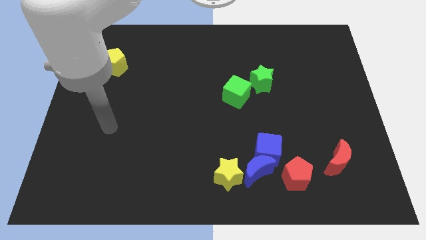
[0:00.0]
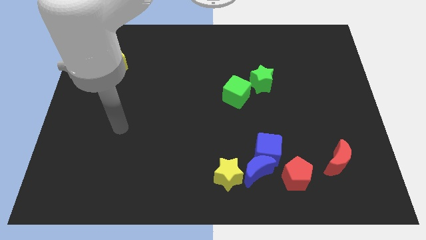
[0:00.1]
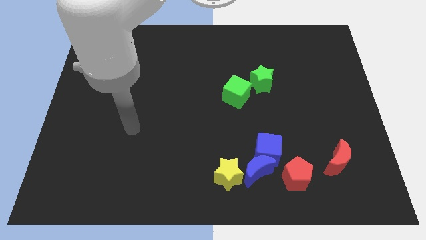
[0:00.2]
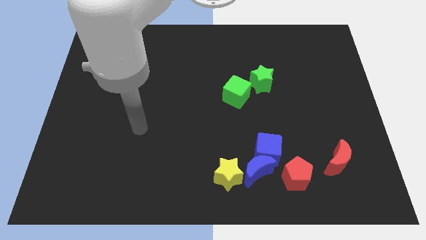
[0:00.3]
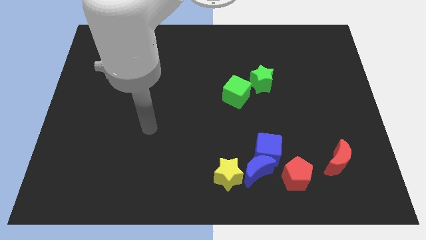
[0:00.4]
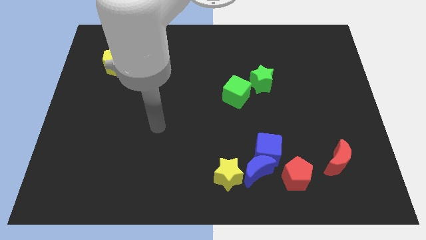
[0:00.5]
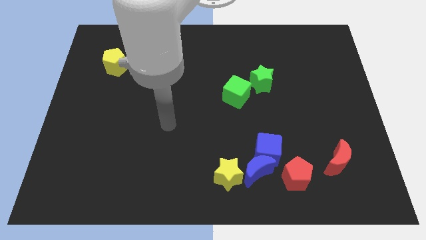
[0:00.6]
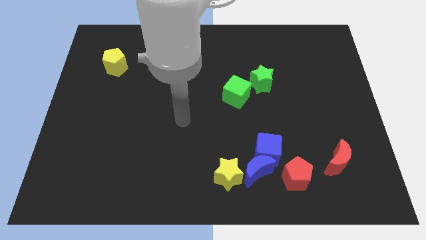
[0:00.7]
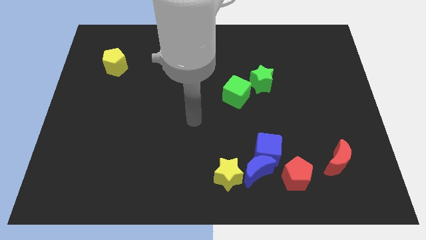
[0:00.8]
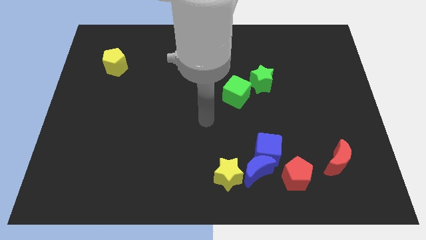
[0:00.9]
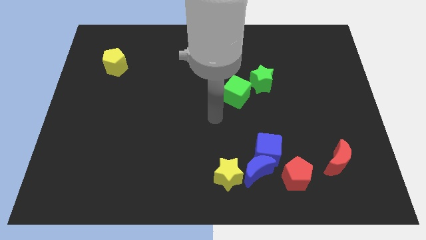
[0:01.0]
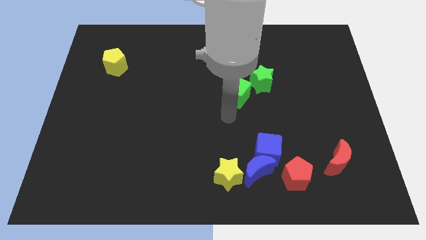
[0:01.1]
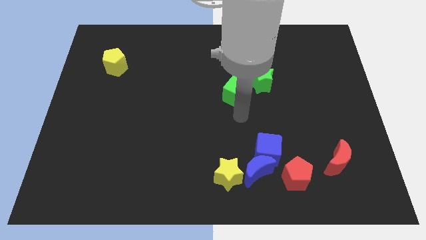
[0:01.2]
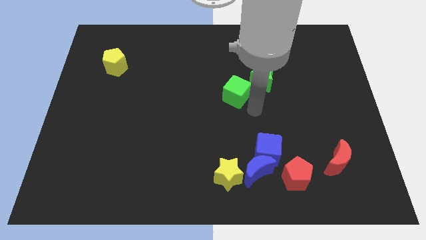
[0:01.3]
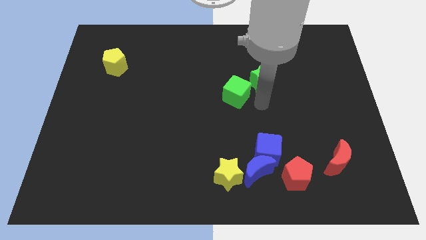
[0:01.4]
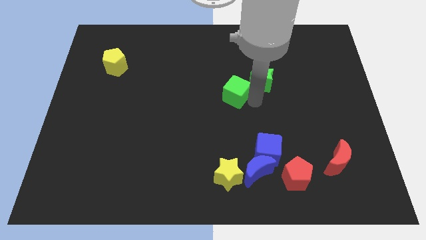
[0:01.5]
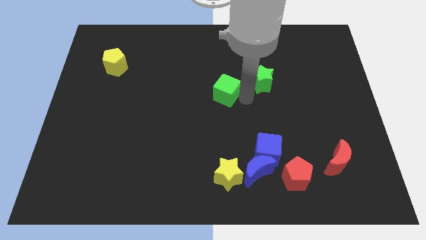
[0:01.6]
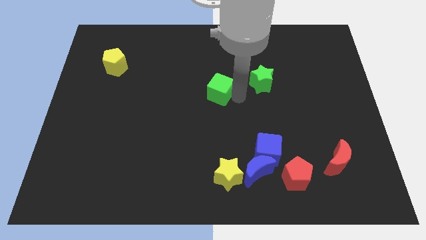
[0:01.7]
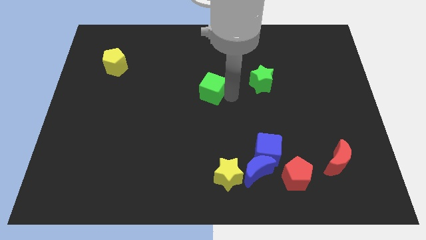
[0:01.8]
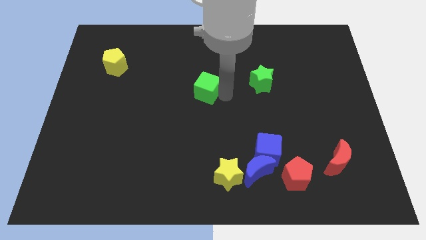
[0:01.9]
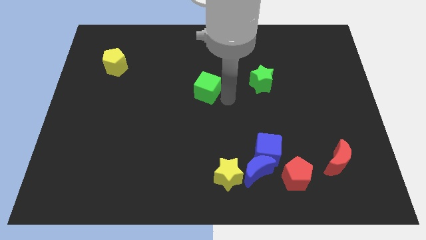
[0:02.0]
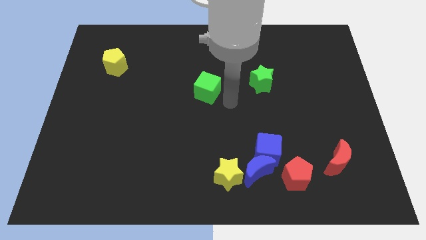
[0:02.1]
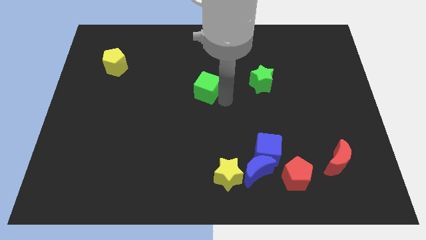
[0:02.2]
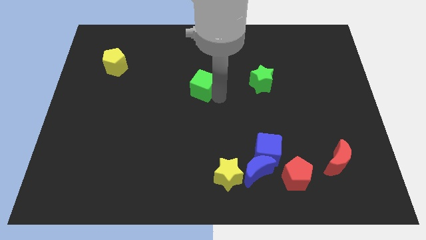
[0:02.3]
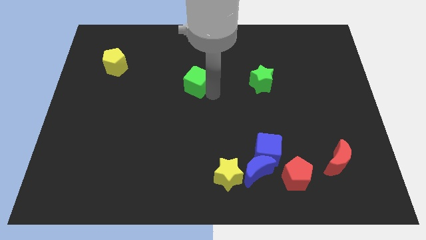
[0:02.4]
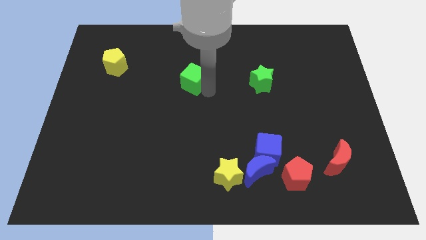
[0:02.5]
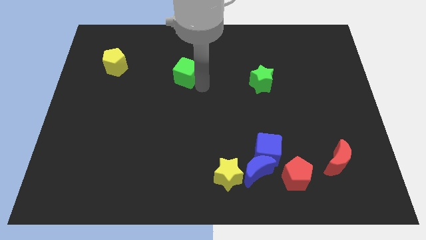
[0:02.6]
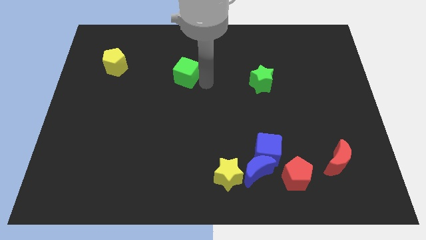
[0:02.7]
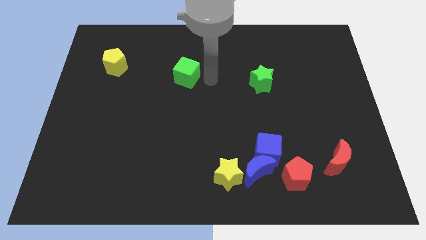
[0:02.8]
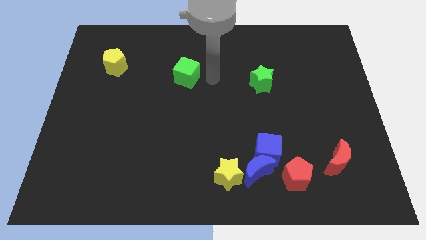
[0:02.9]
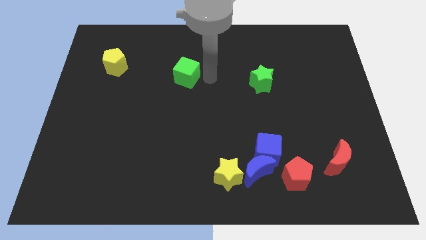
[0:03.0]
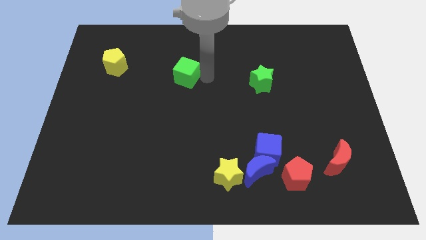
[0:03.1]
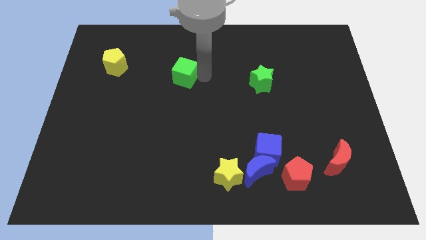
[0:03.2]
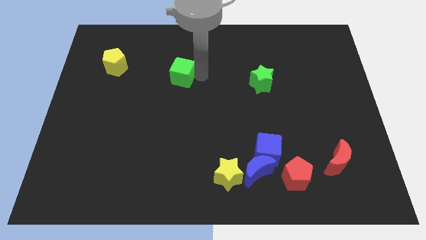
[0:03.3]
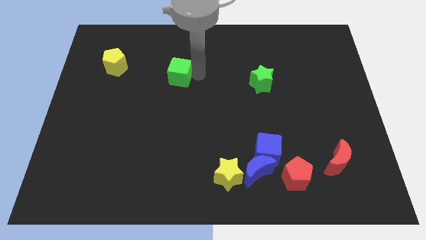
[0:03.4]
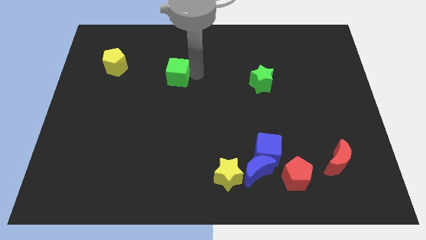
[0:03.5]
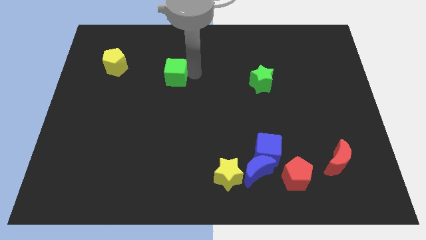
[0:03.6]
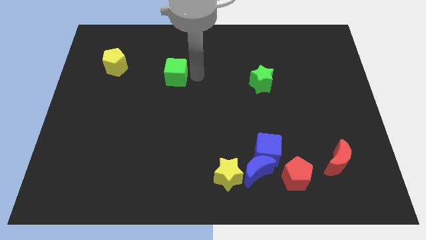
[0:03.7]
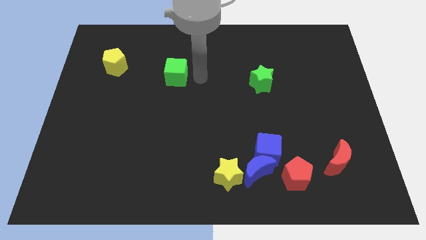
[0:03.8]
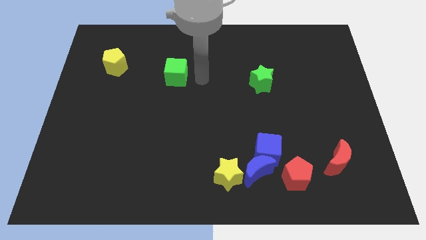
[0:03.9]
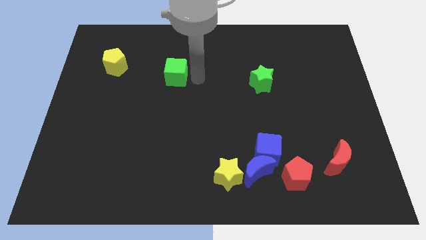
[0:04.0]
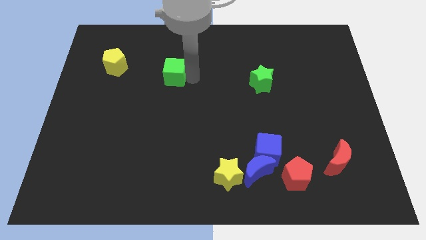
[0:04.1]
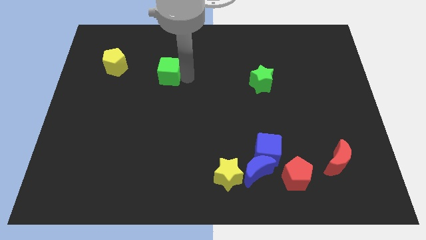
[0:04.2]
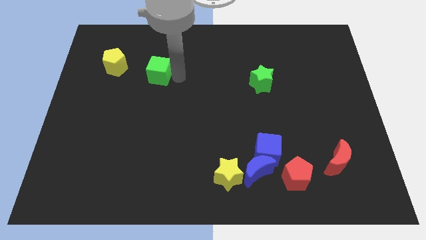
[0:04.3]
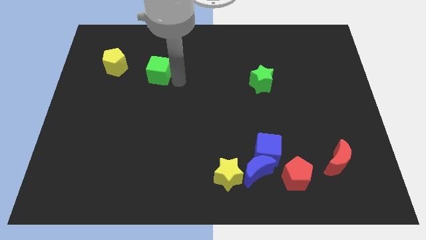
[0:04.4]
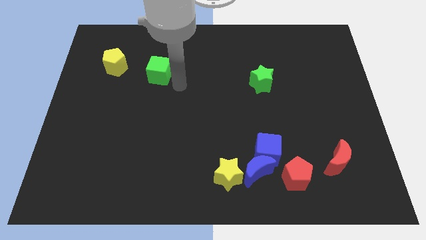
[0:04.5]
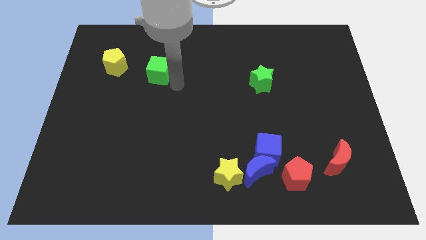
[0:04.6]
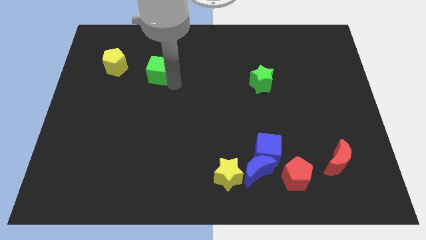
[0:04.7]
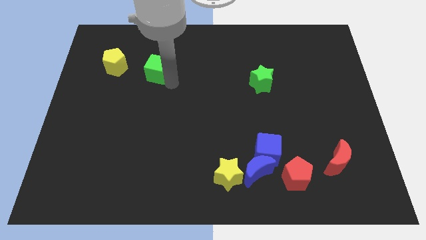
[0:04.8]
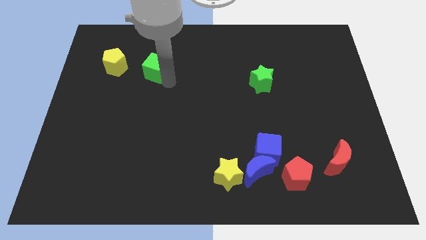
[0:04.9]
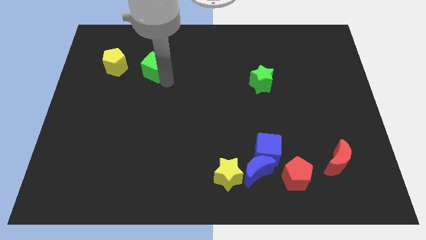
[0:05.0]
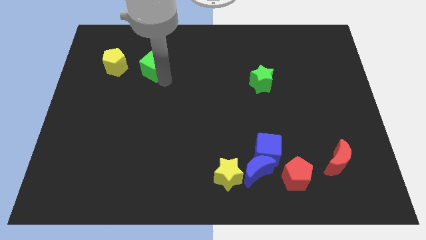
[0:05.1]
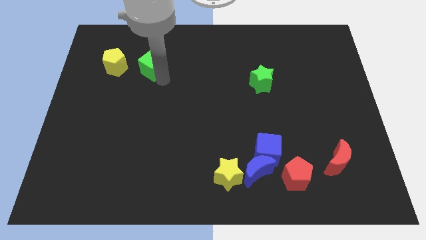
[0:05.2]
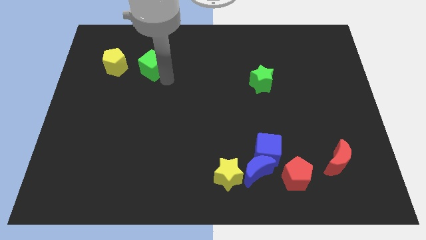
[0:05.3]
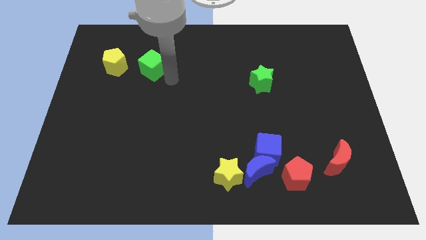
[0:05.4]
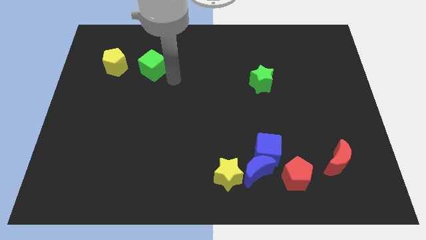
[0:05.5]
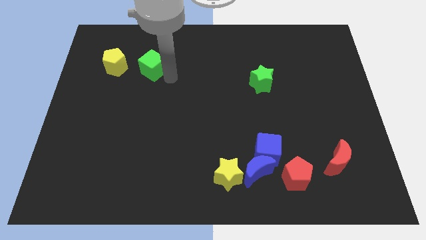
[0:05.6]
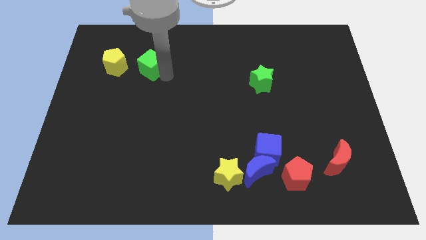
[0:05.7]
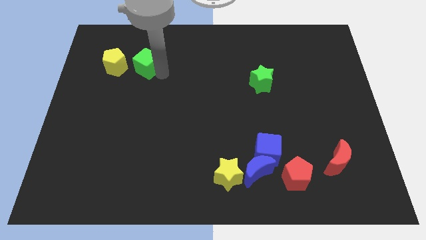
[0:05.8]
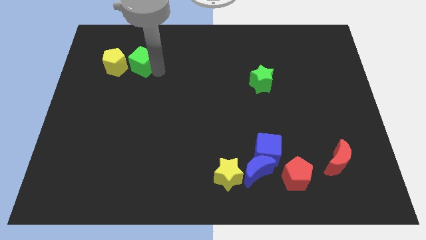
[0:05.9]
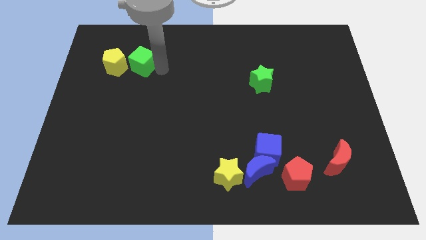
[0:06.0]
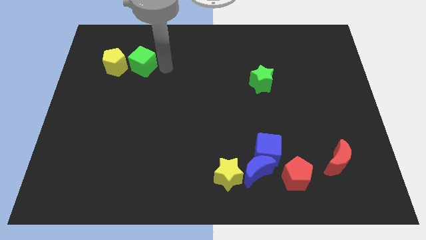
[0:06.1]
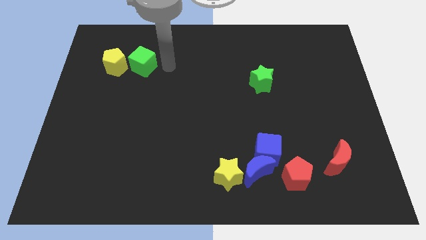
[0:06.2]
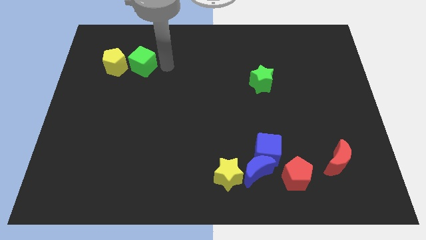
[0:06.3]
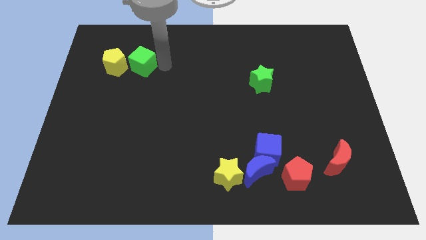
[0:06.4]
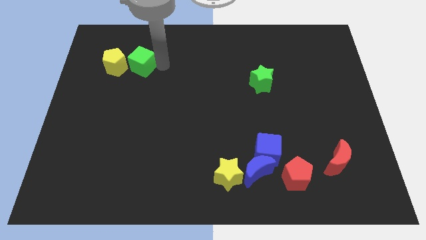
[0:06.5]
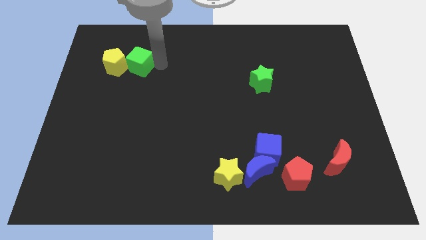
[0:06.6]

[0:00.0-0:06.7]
push the green cube next to the yellow pentagon

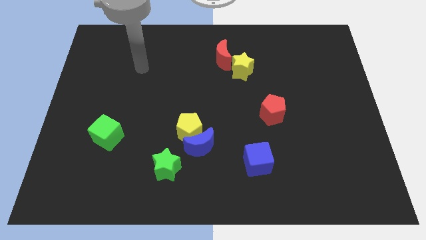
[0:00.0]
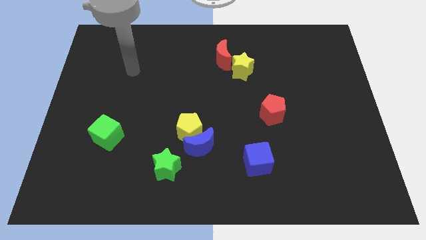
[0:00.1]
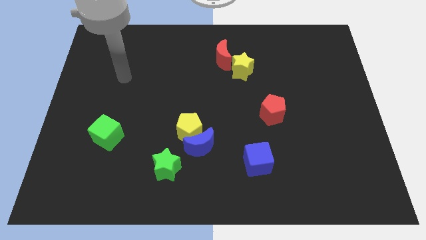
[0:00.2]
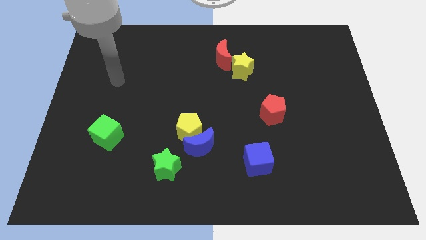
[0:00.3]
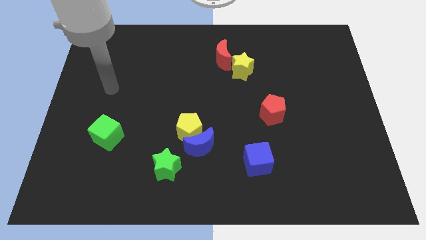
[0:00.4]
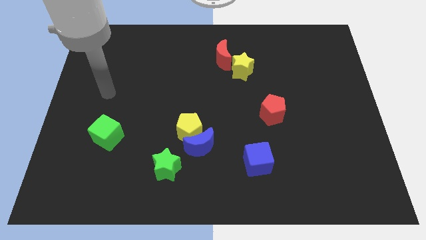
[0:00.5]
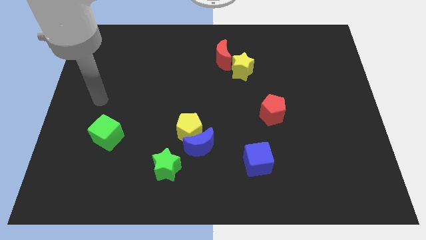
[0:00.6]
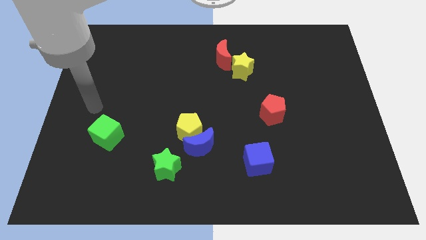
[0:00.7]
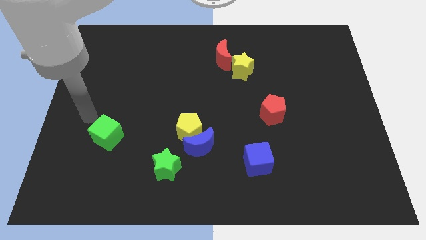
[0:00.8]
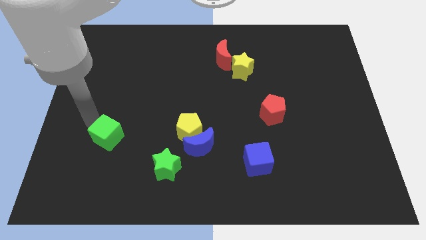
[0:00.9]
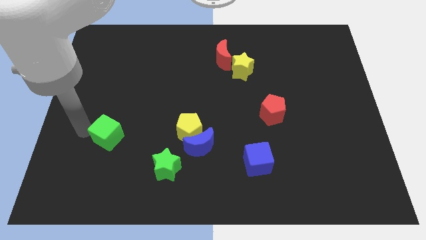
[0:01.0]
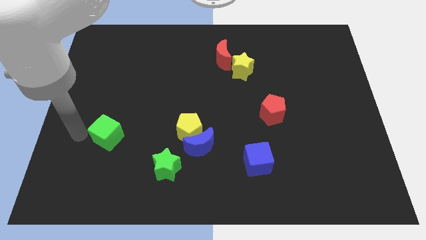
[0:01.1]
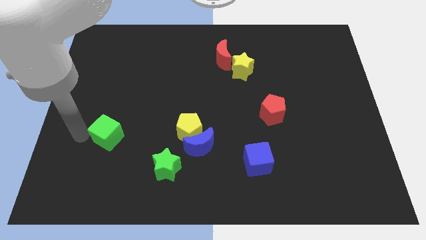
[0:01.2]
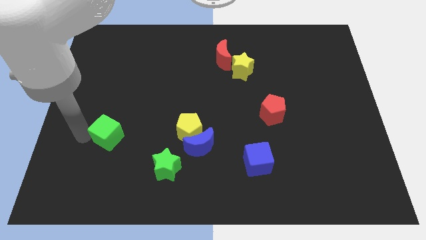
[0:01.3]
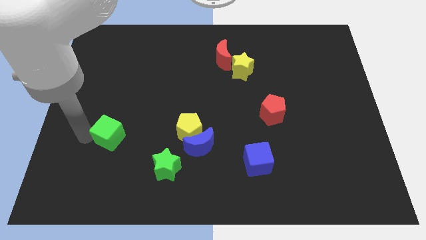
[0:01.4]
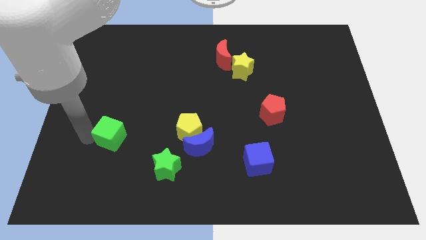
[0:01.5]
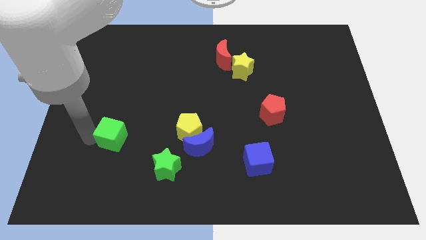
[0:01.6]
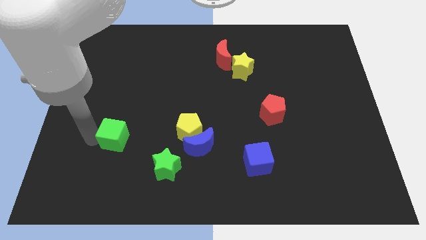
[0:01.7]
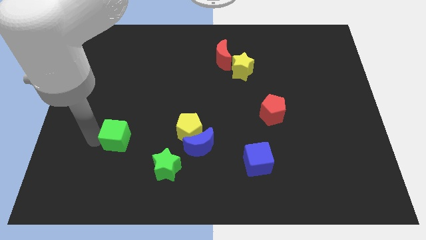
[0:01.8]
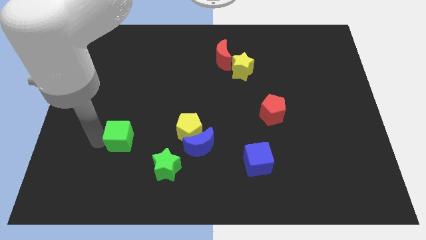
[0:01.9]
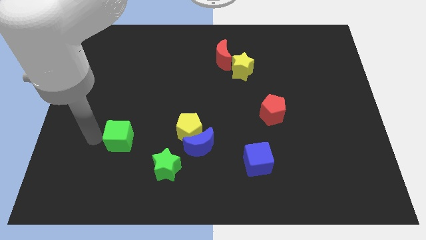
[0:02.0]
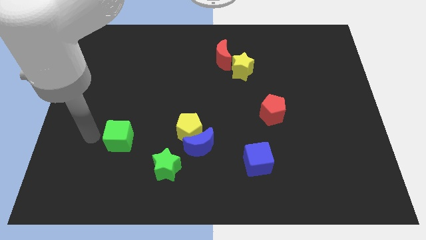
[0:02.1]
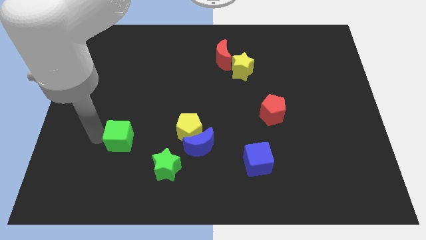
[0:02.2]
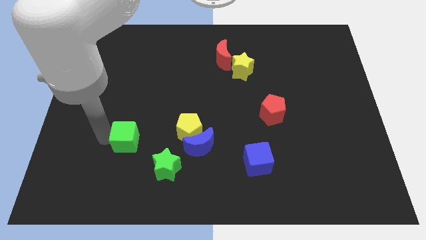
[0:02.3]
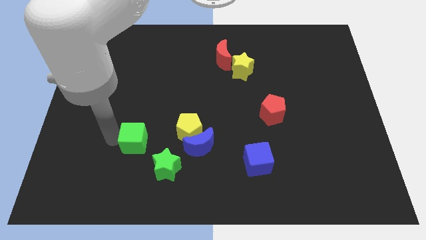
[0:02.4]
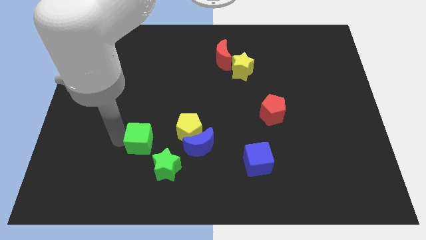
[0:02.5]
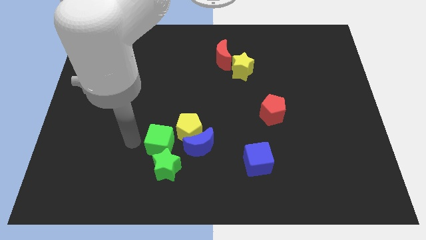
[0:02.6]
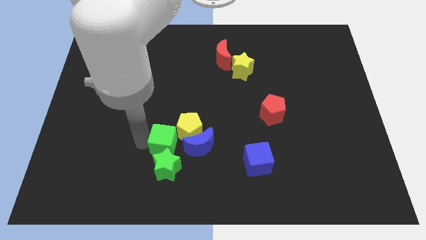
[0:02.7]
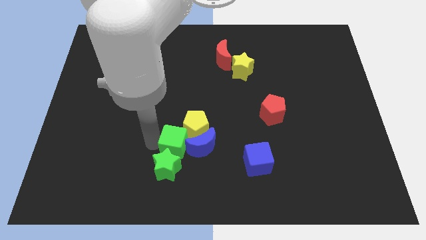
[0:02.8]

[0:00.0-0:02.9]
push the green cube close to the blue moon
